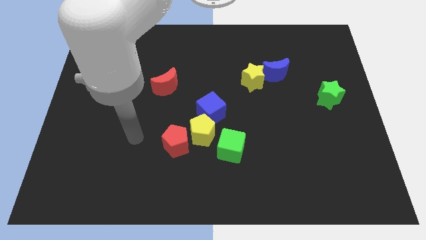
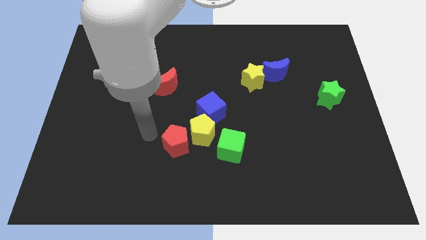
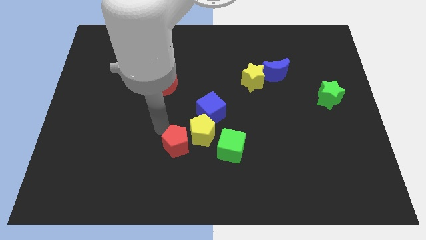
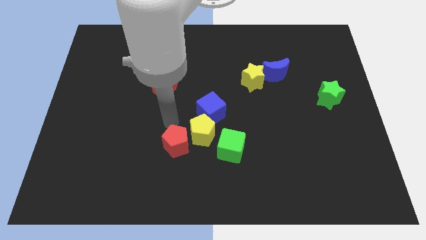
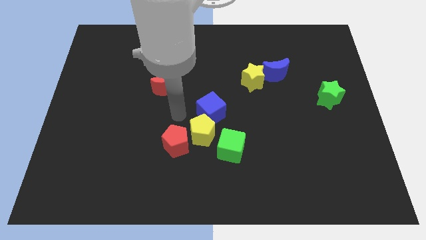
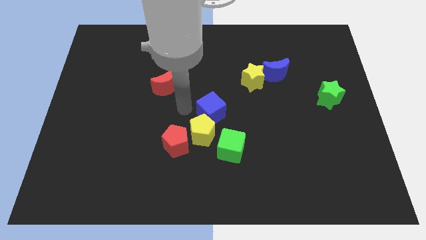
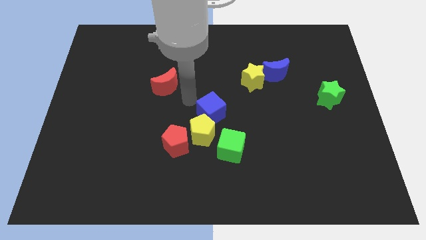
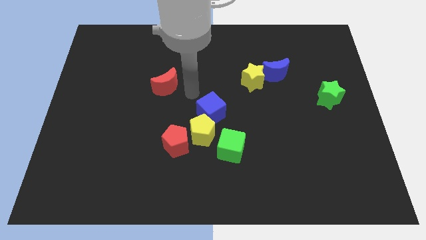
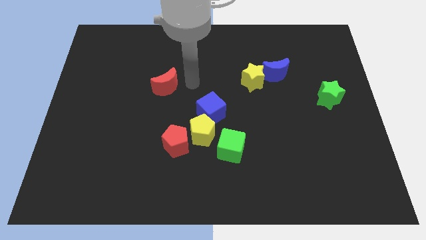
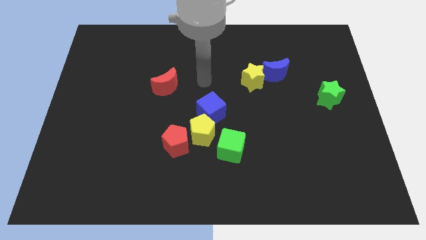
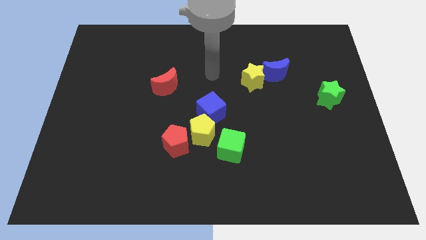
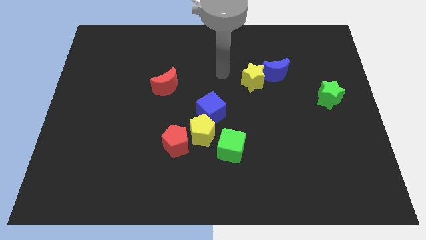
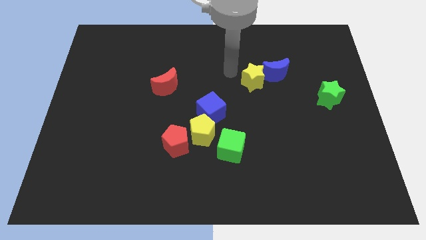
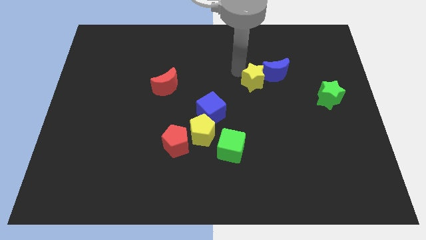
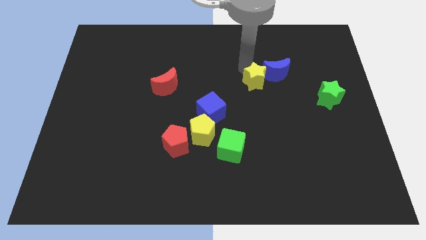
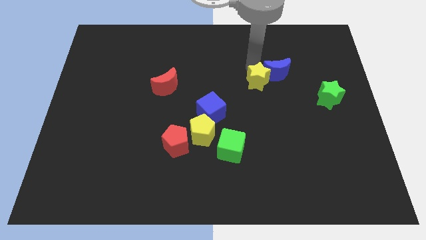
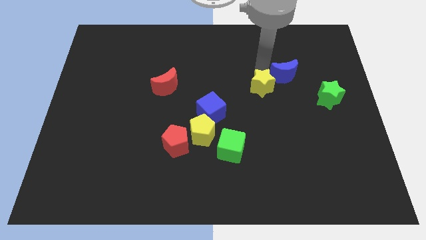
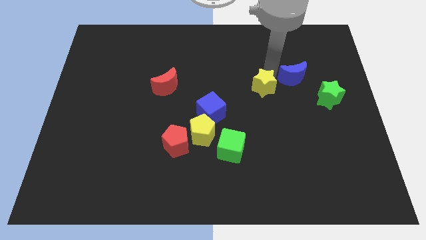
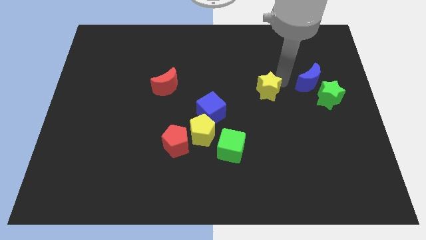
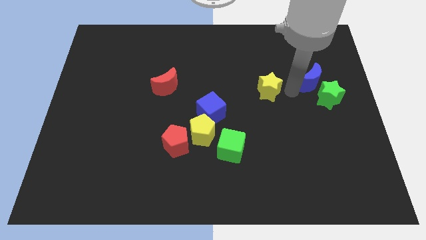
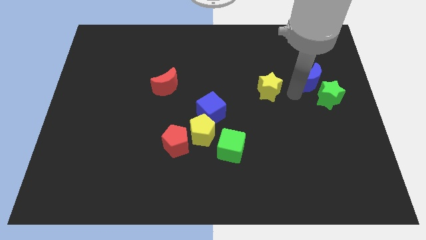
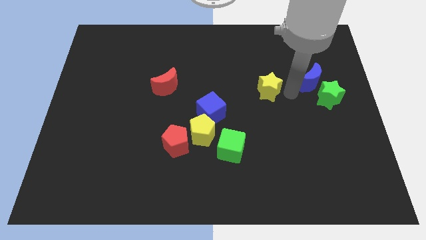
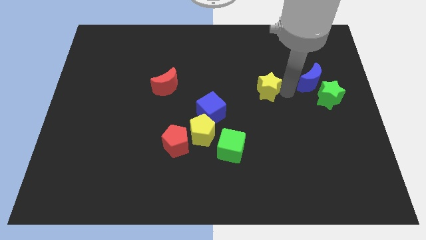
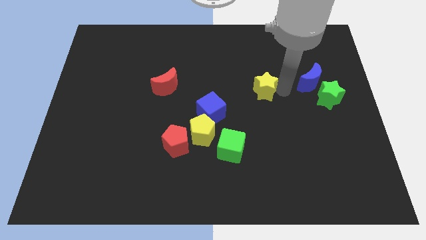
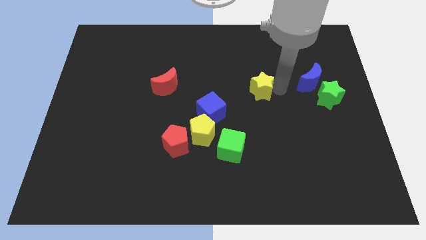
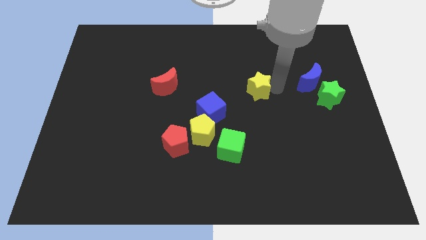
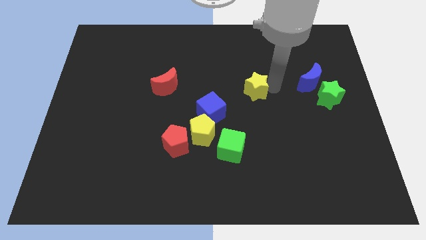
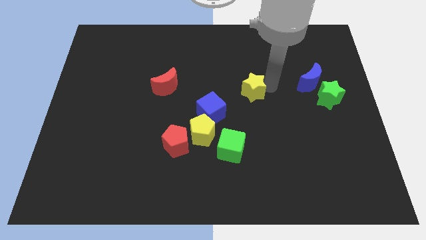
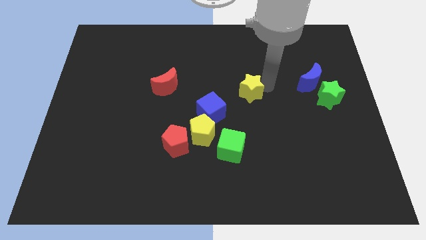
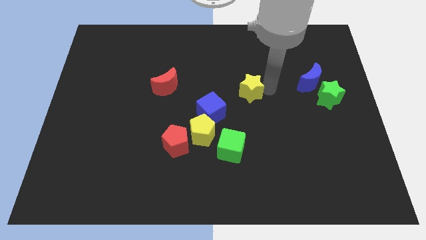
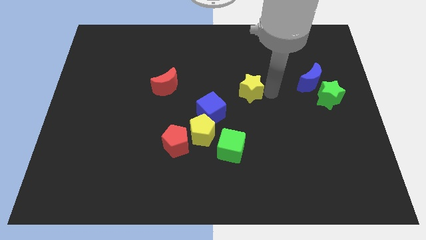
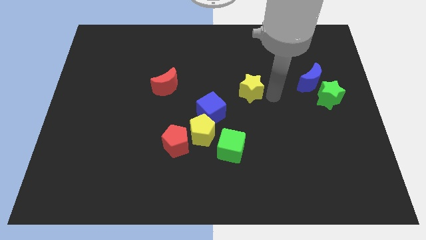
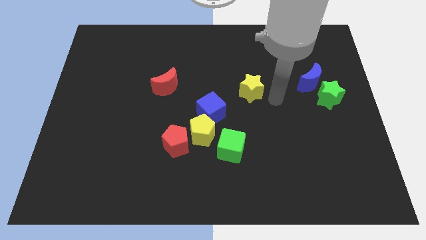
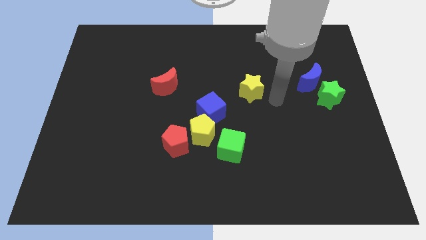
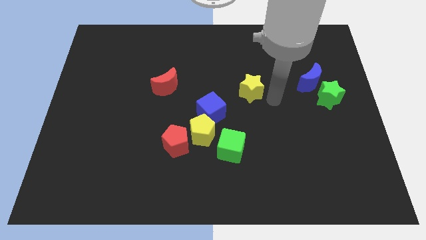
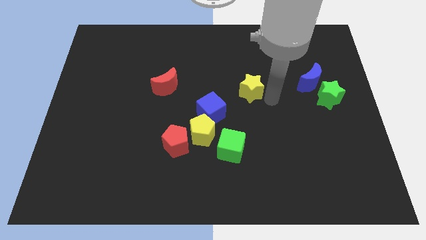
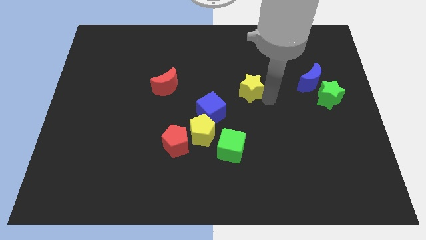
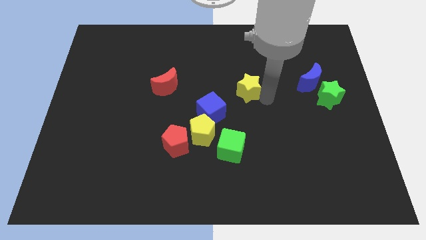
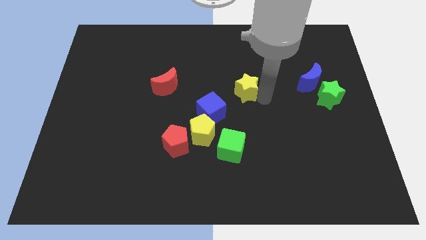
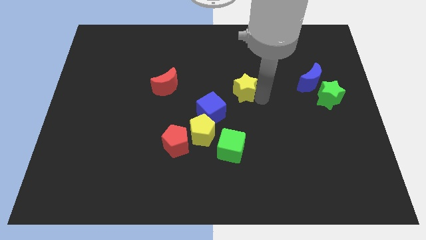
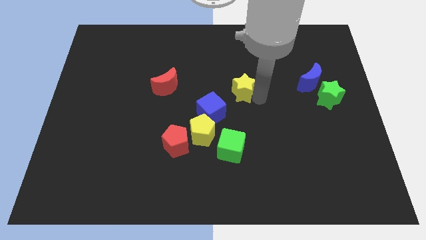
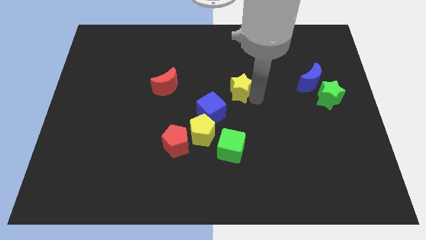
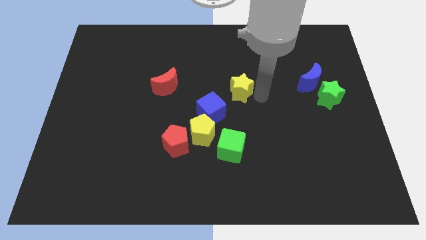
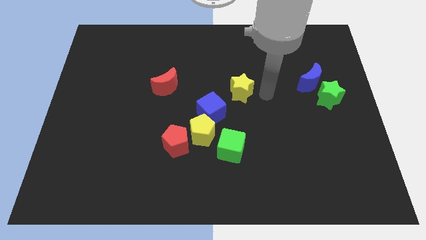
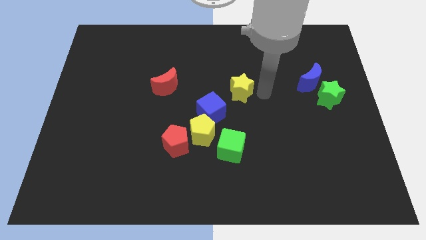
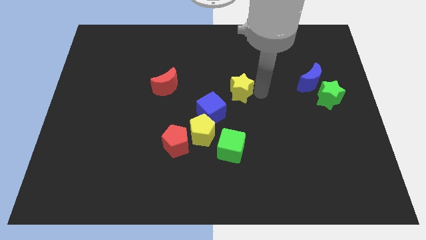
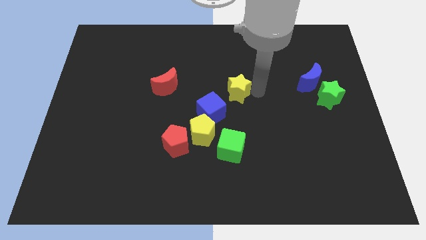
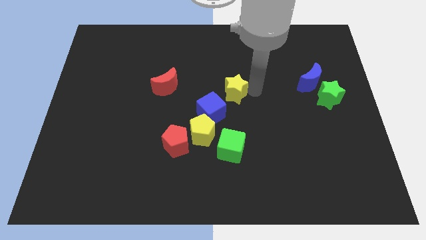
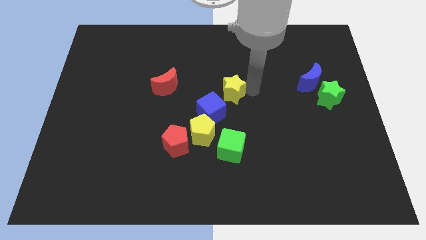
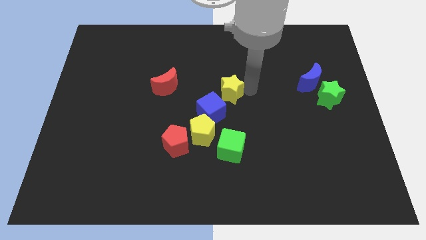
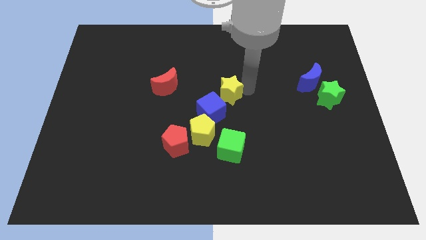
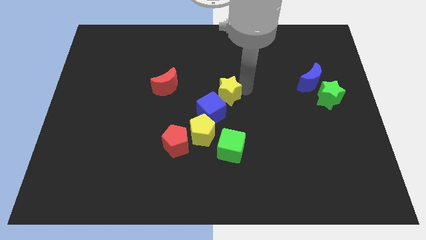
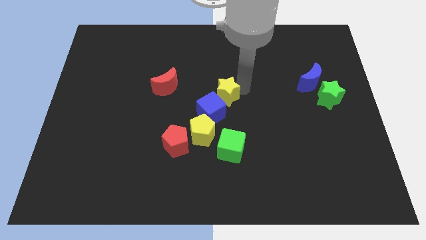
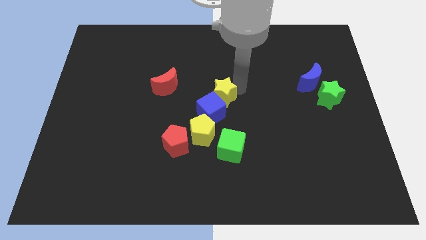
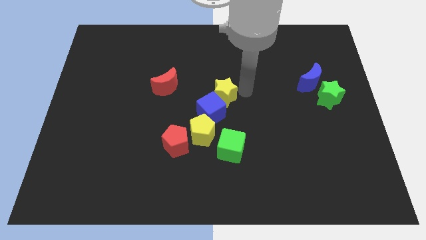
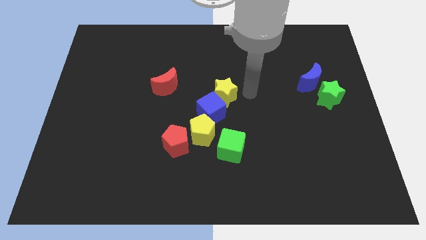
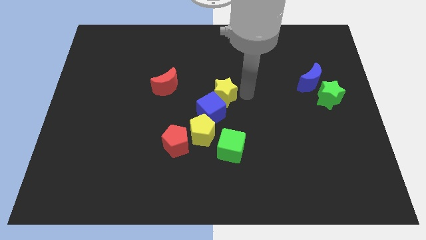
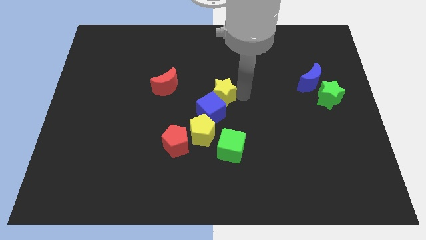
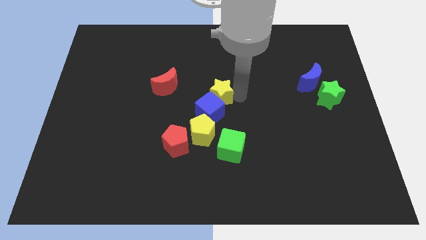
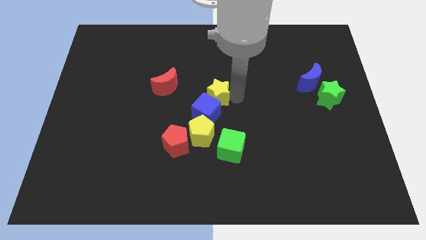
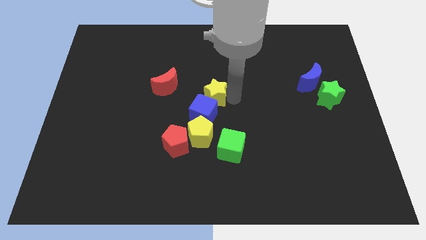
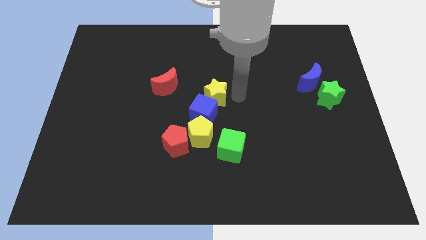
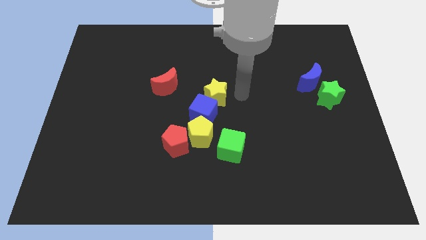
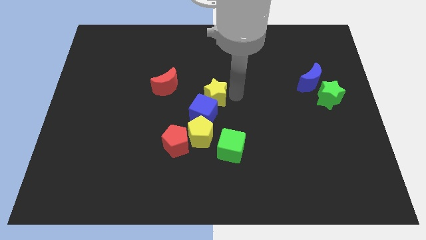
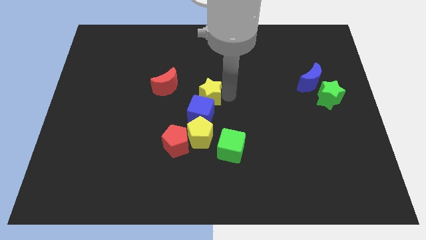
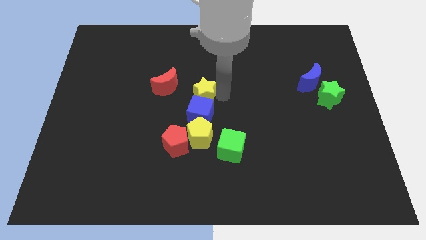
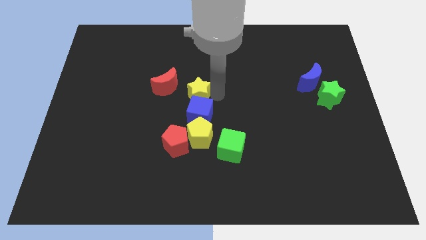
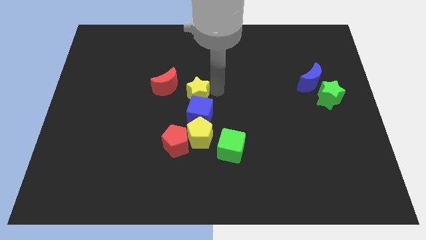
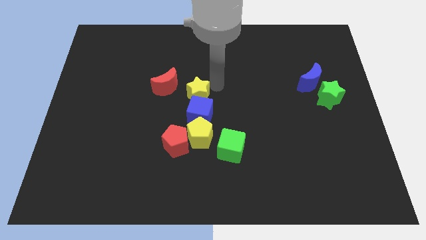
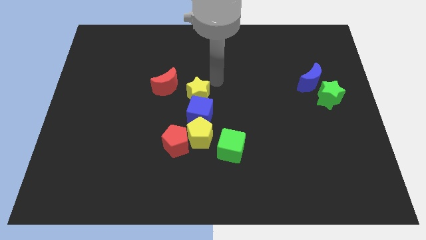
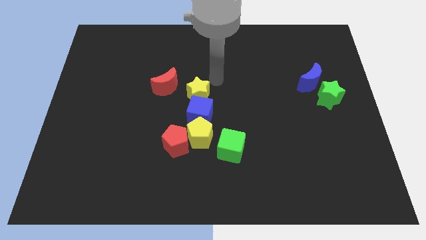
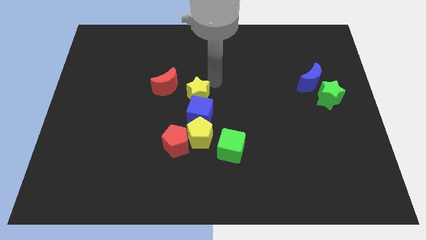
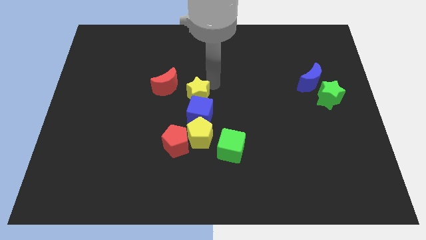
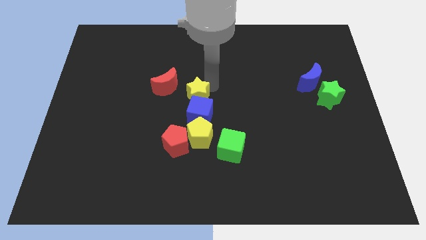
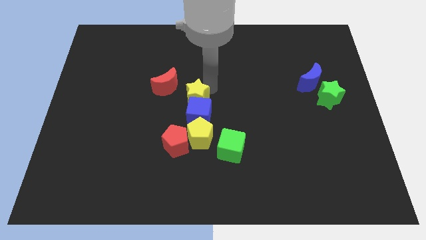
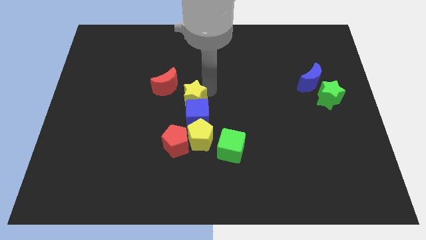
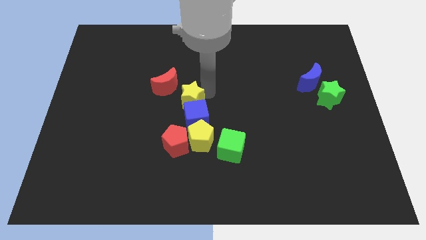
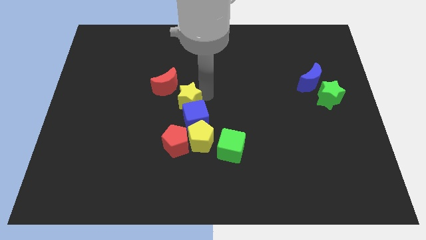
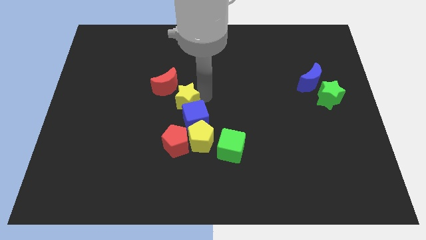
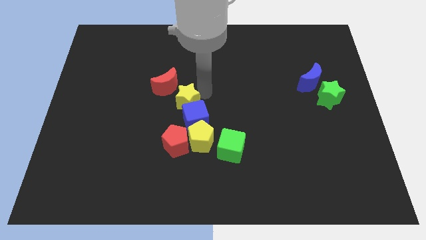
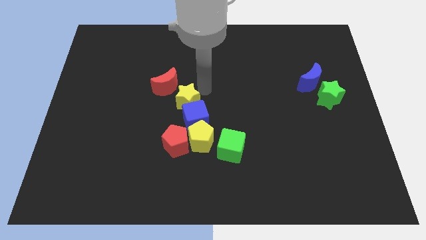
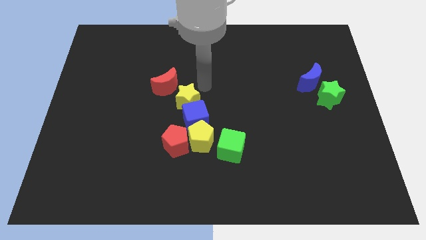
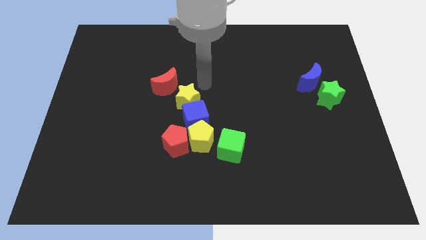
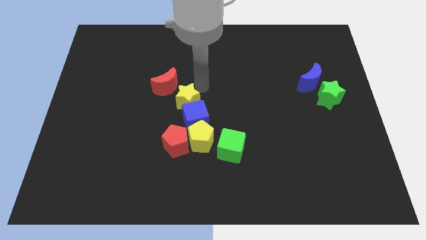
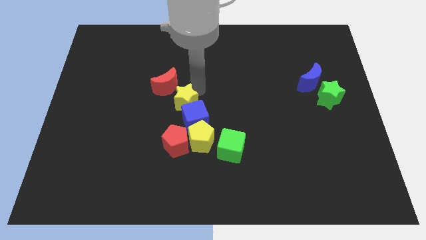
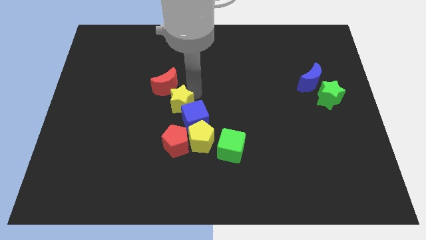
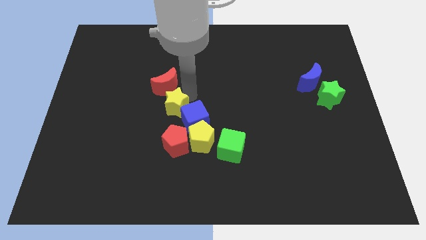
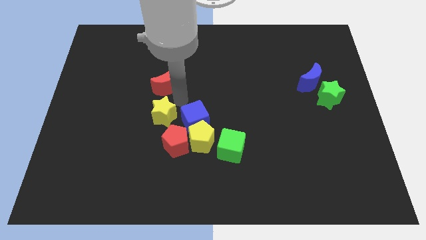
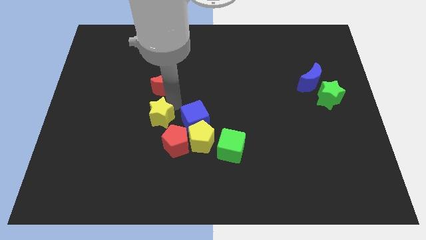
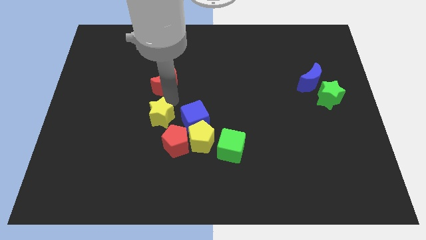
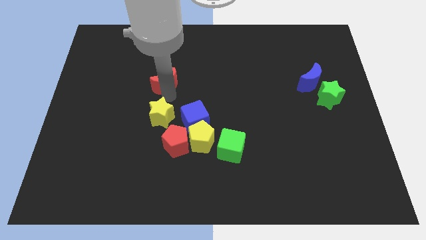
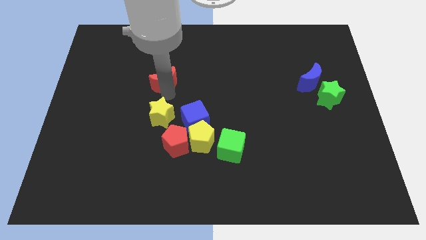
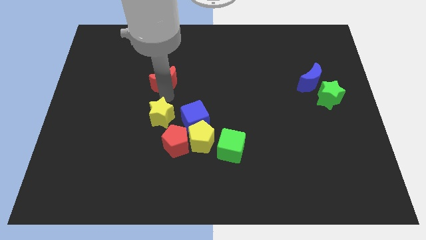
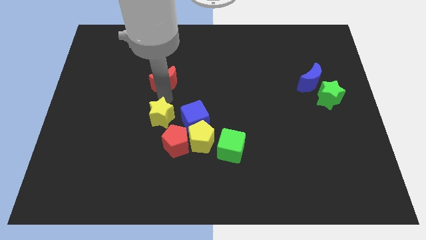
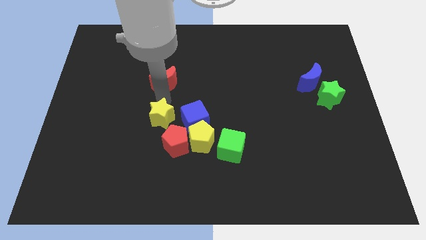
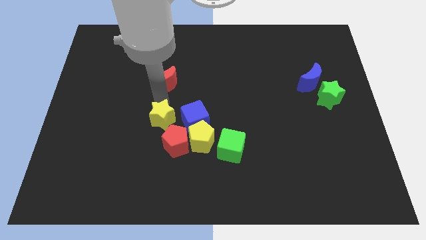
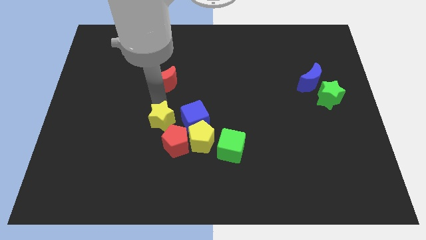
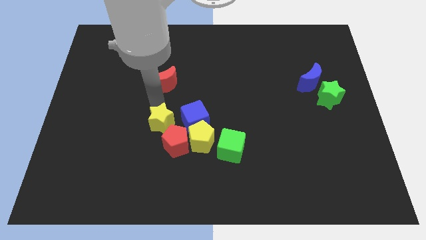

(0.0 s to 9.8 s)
move the yellow star just left of the yellow pentagon
